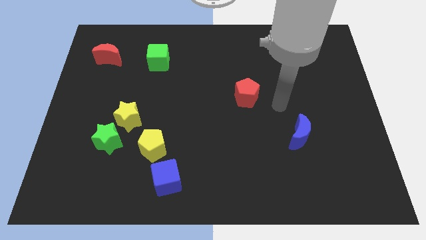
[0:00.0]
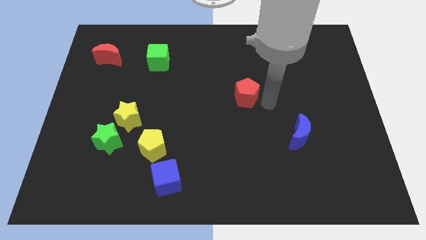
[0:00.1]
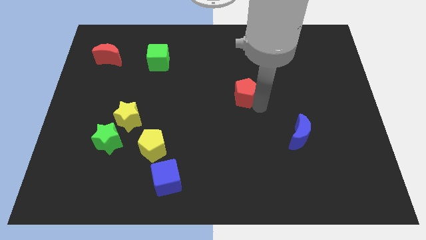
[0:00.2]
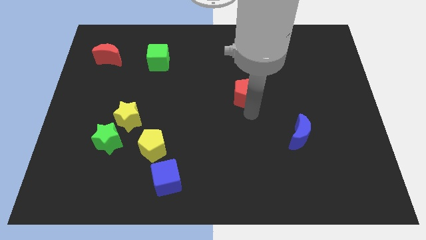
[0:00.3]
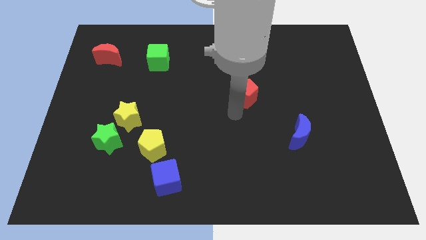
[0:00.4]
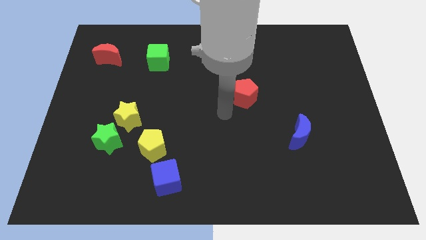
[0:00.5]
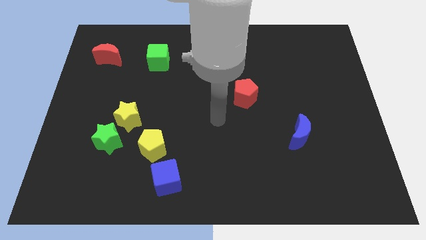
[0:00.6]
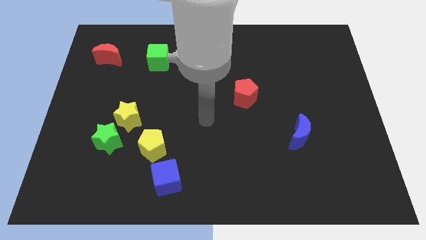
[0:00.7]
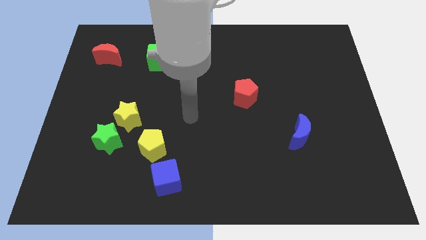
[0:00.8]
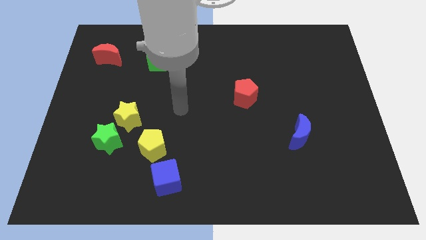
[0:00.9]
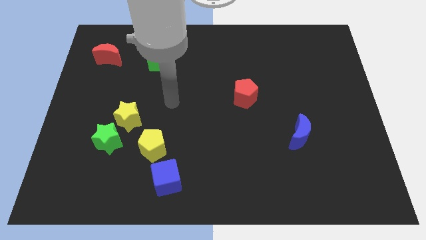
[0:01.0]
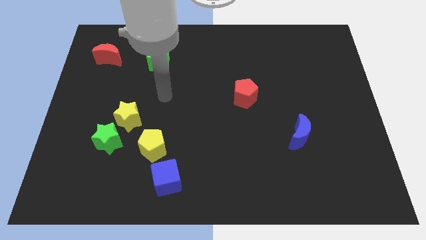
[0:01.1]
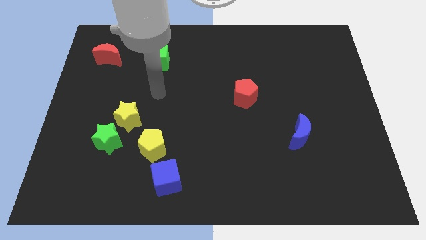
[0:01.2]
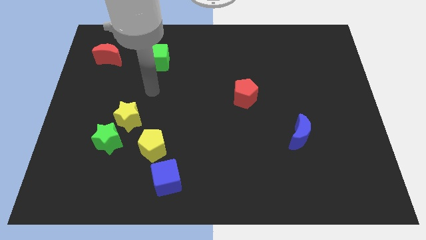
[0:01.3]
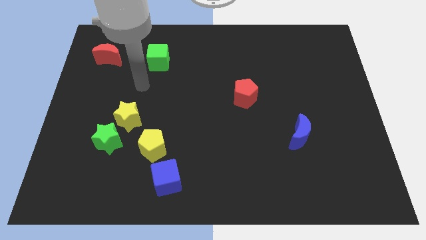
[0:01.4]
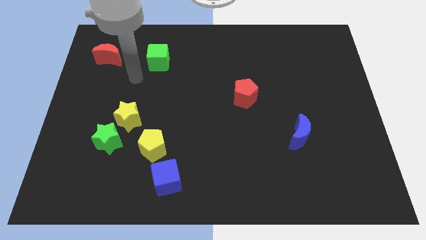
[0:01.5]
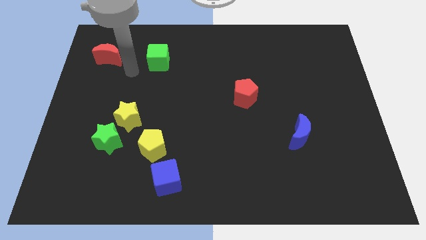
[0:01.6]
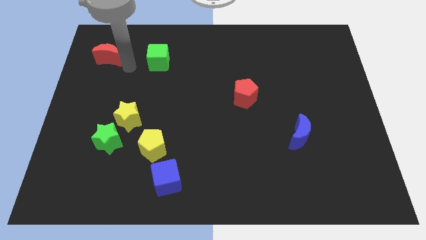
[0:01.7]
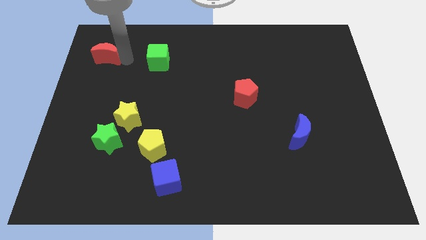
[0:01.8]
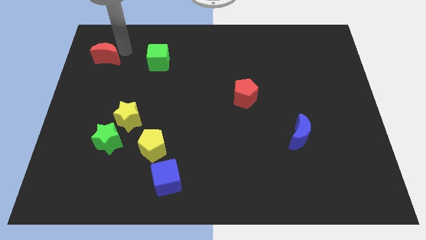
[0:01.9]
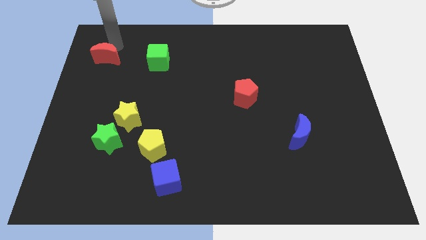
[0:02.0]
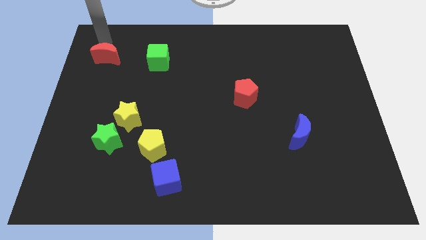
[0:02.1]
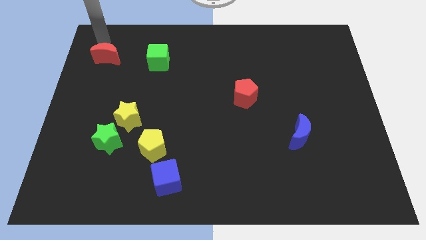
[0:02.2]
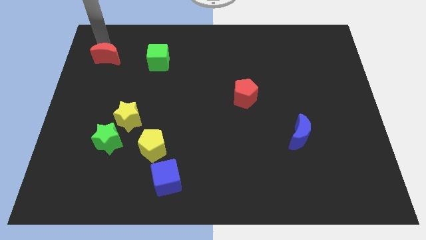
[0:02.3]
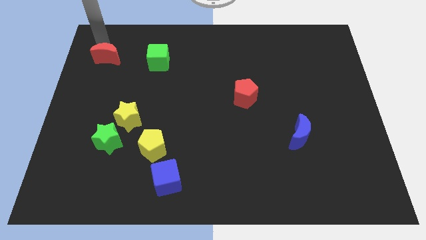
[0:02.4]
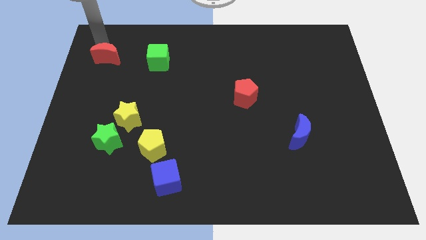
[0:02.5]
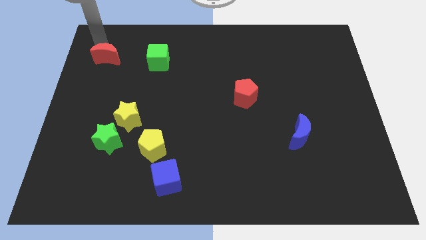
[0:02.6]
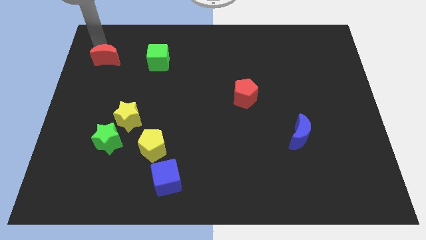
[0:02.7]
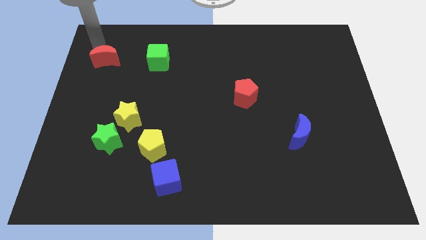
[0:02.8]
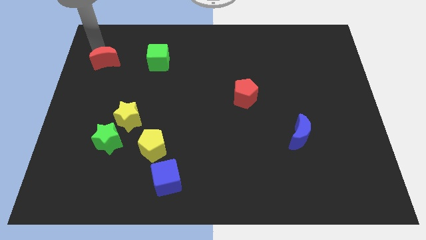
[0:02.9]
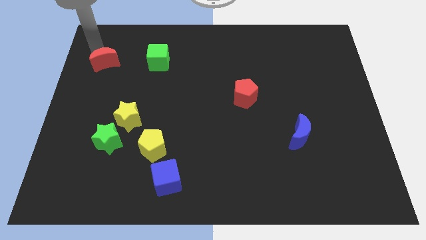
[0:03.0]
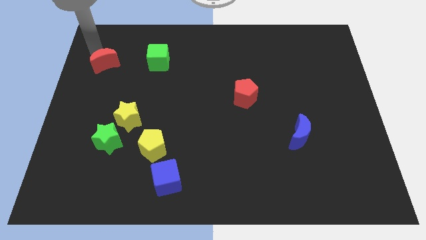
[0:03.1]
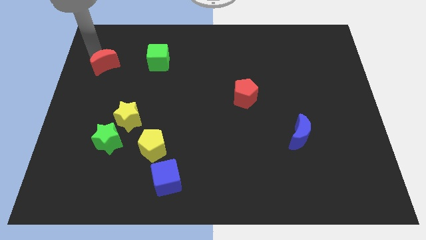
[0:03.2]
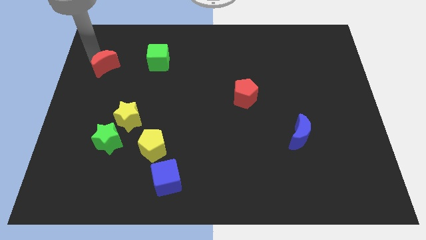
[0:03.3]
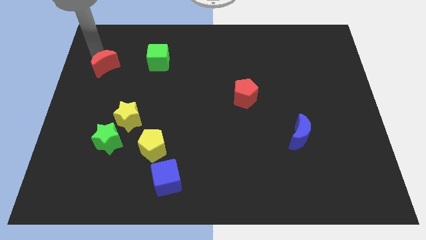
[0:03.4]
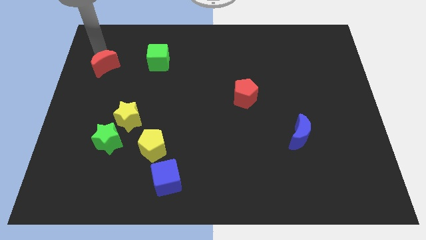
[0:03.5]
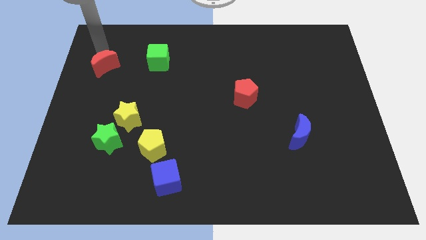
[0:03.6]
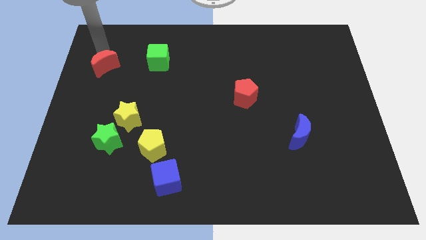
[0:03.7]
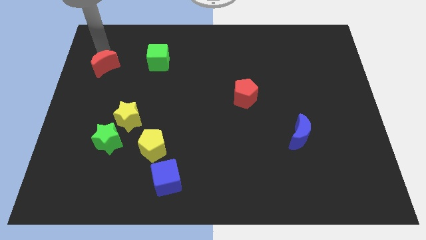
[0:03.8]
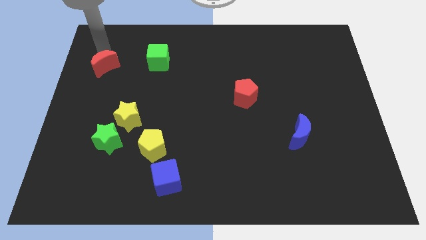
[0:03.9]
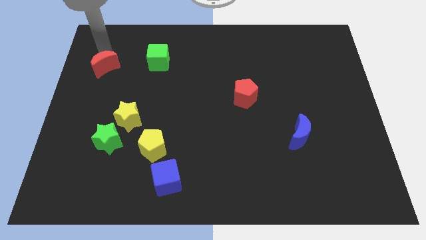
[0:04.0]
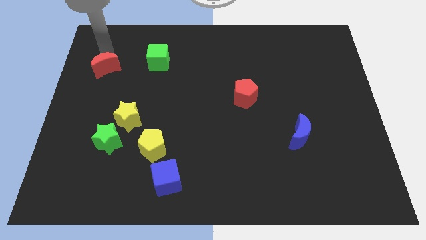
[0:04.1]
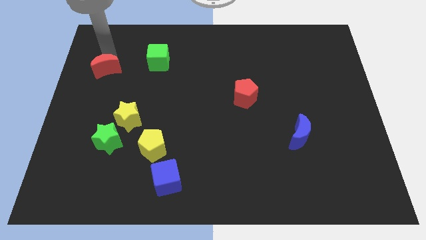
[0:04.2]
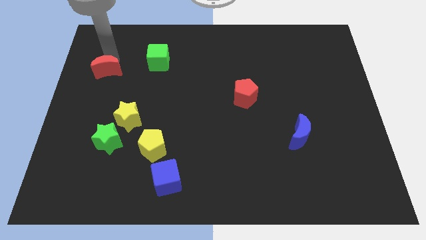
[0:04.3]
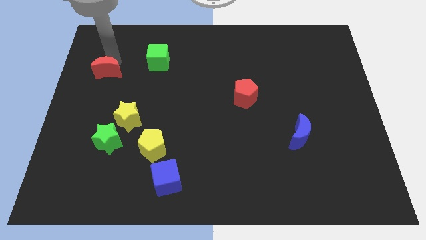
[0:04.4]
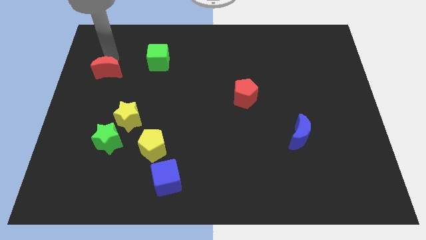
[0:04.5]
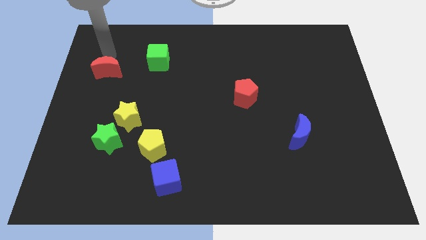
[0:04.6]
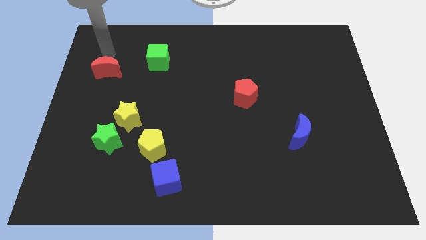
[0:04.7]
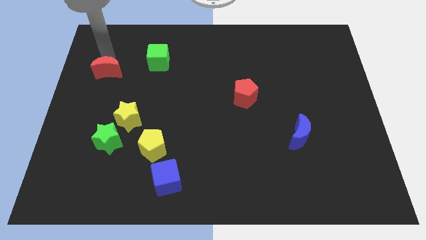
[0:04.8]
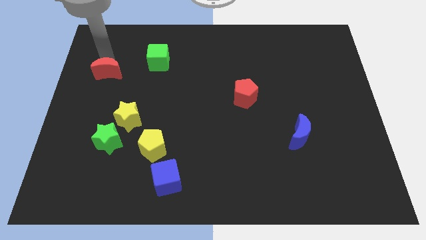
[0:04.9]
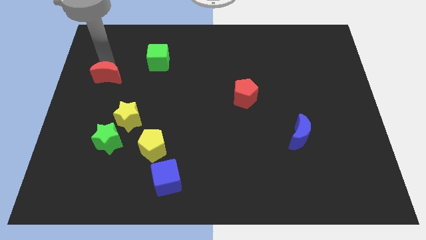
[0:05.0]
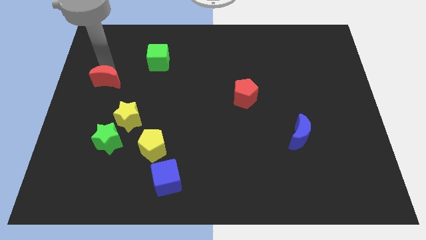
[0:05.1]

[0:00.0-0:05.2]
move the red moon downwards a bit

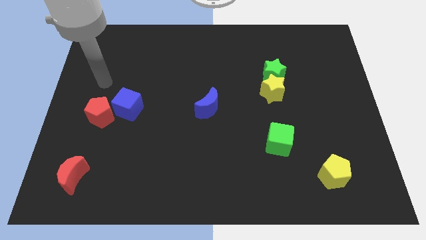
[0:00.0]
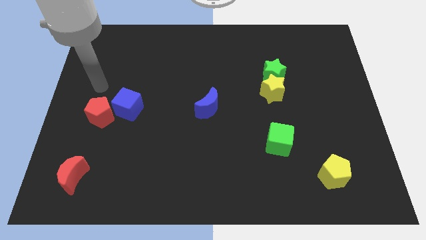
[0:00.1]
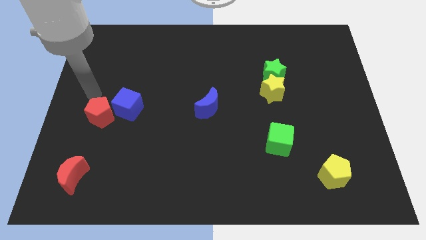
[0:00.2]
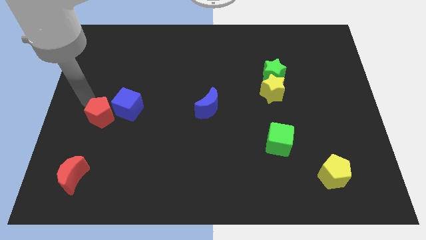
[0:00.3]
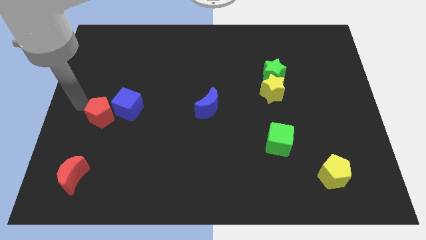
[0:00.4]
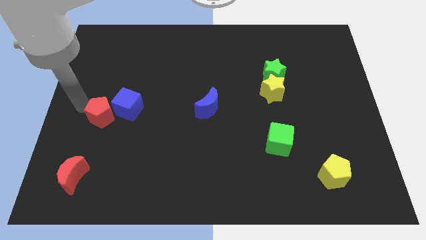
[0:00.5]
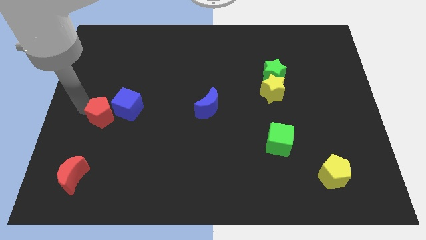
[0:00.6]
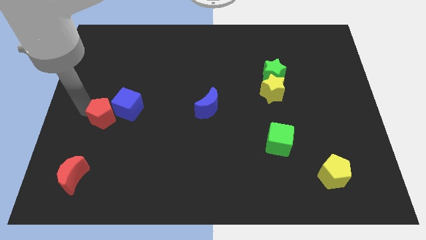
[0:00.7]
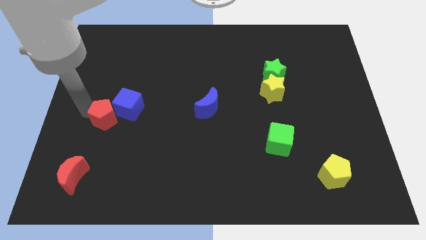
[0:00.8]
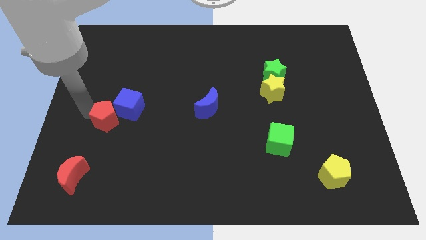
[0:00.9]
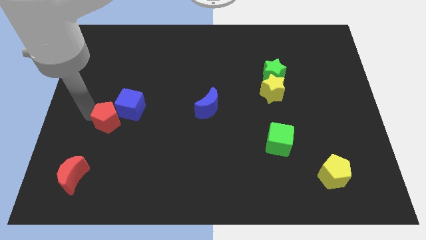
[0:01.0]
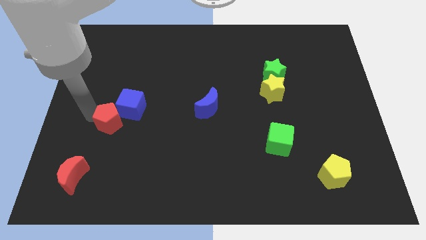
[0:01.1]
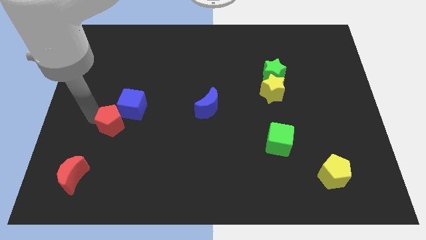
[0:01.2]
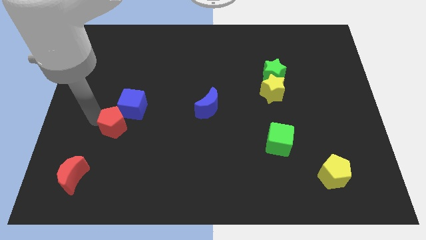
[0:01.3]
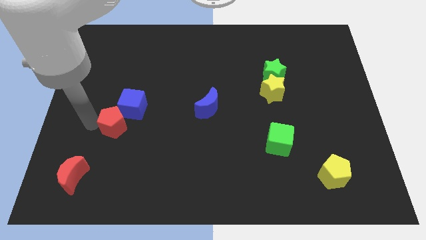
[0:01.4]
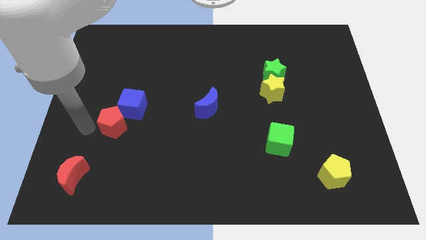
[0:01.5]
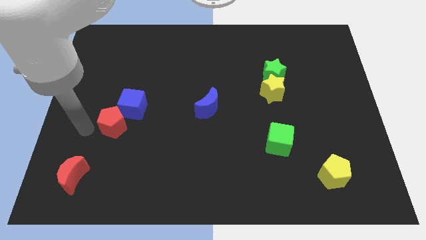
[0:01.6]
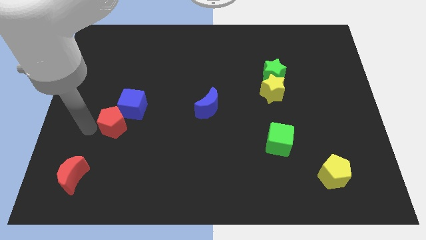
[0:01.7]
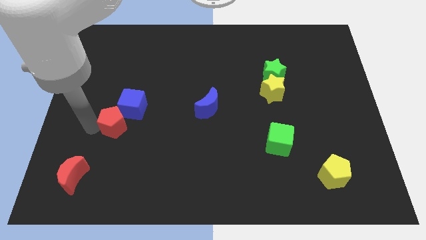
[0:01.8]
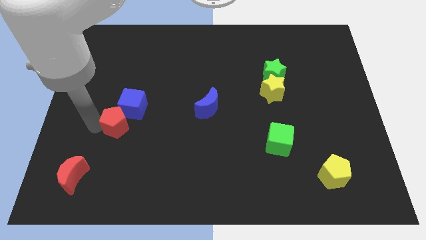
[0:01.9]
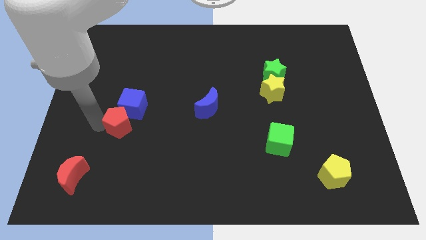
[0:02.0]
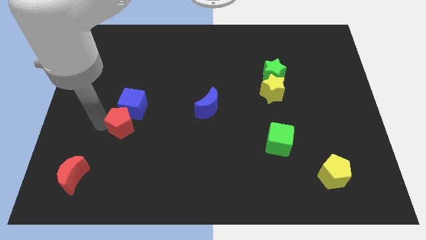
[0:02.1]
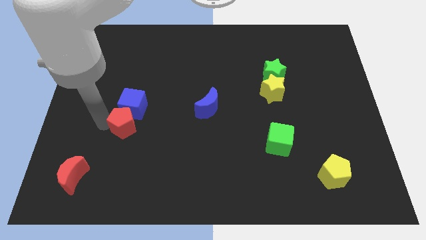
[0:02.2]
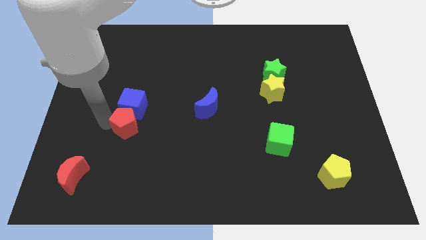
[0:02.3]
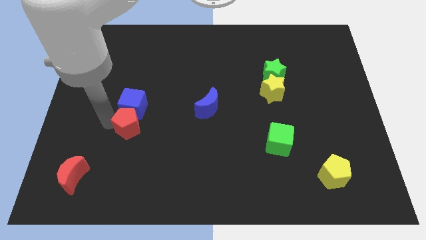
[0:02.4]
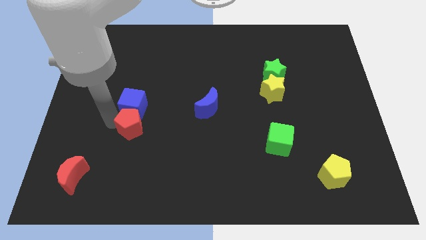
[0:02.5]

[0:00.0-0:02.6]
slide the red pentagon right somewhat

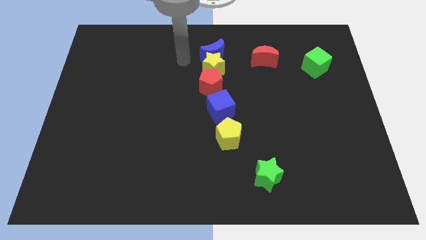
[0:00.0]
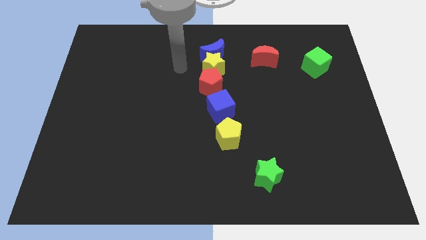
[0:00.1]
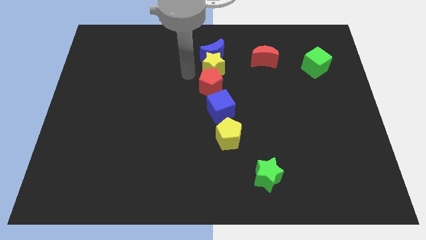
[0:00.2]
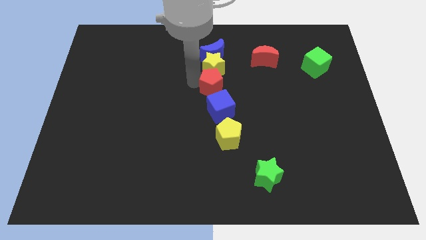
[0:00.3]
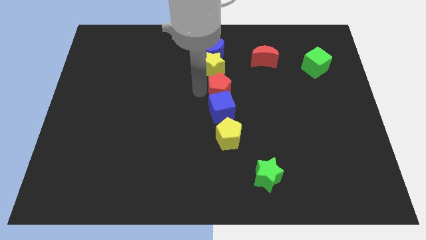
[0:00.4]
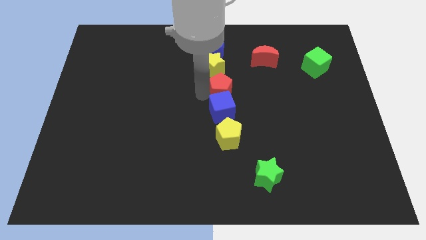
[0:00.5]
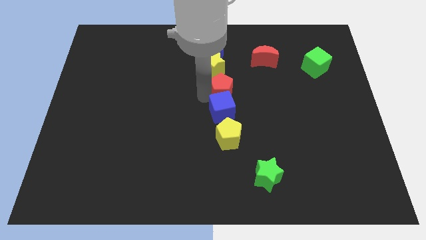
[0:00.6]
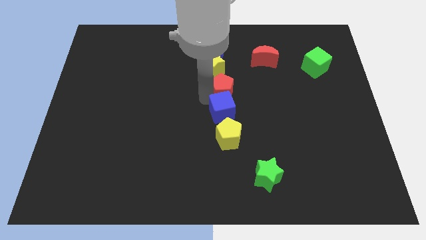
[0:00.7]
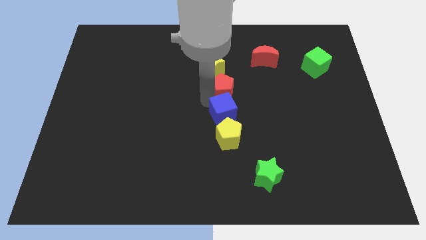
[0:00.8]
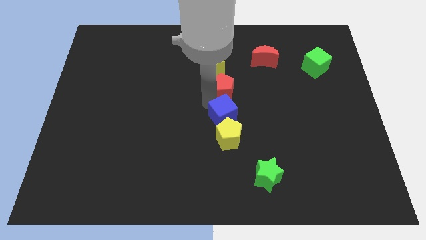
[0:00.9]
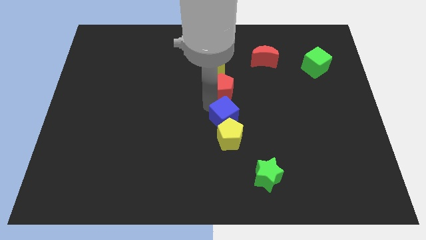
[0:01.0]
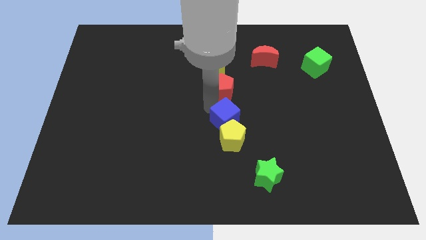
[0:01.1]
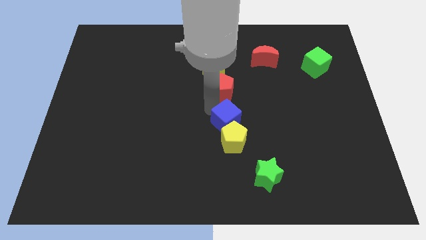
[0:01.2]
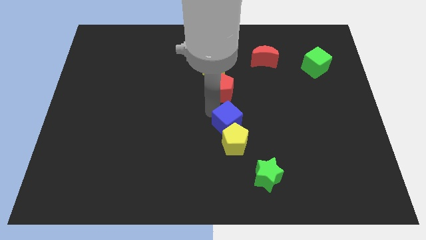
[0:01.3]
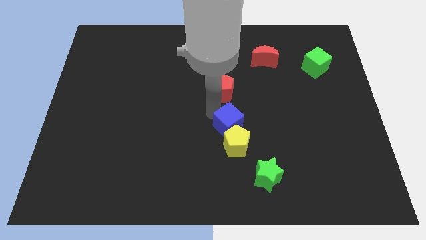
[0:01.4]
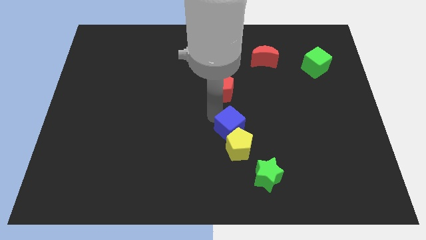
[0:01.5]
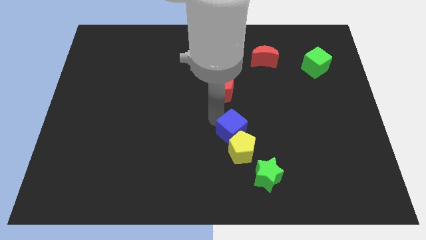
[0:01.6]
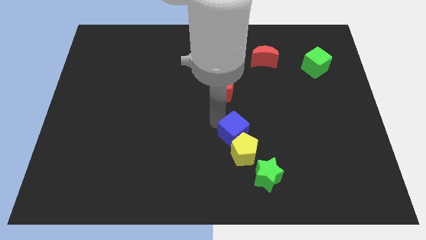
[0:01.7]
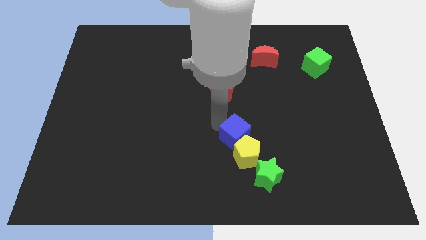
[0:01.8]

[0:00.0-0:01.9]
push the blue cube a bit diagonally downwards and to the right
